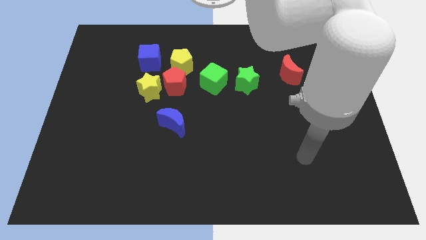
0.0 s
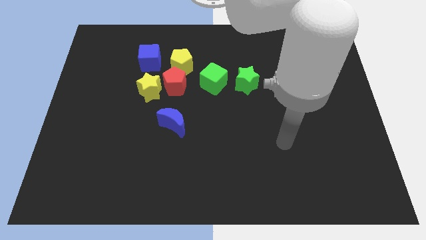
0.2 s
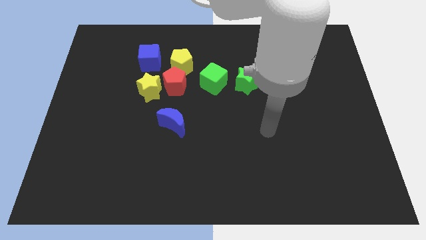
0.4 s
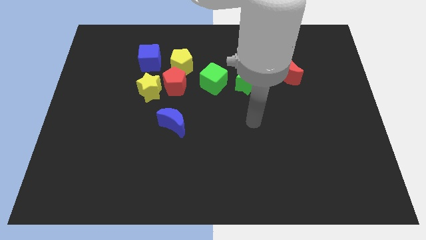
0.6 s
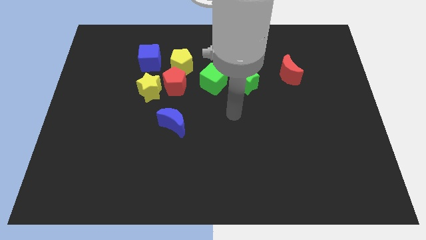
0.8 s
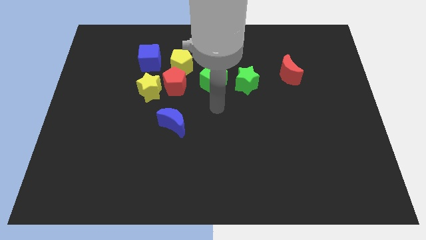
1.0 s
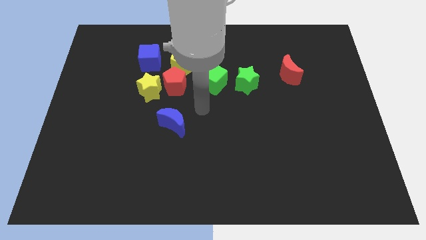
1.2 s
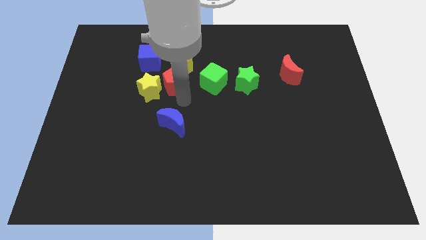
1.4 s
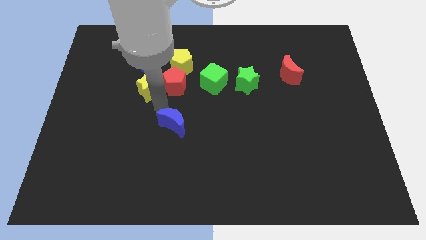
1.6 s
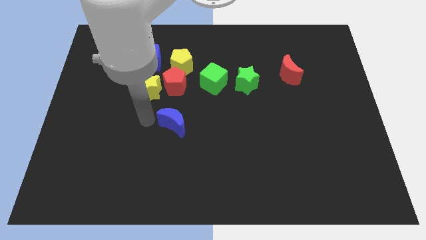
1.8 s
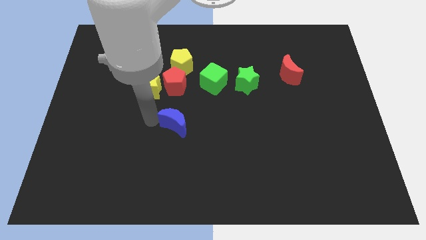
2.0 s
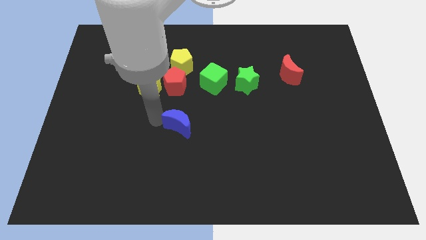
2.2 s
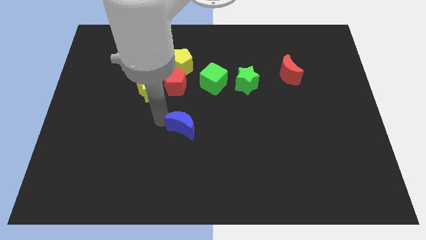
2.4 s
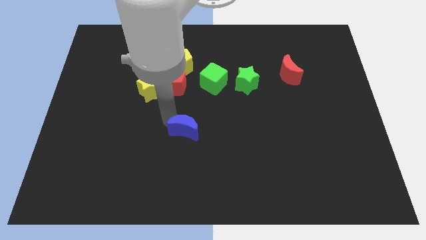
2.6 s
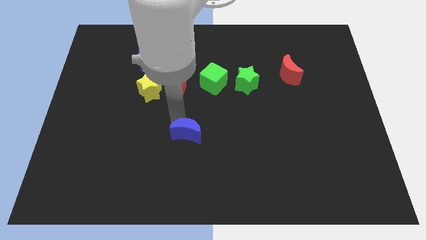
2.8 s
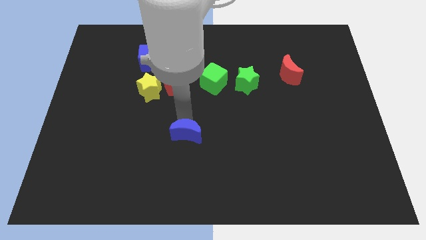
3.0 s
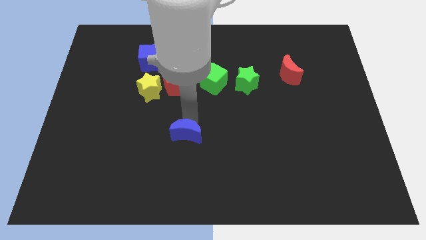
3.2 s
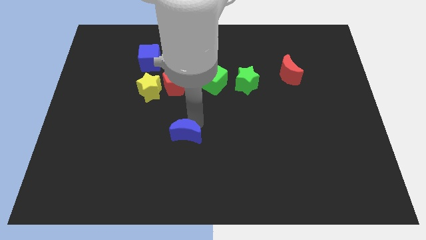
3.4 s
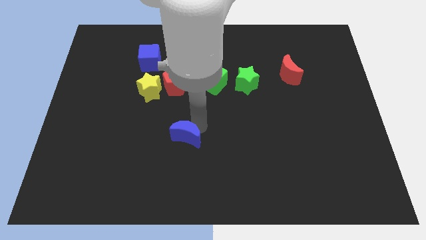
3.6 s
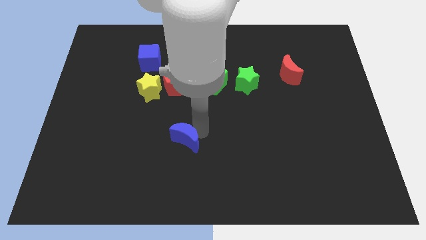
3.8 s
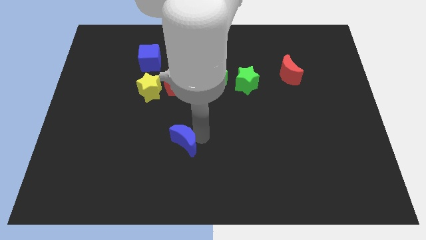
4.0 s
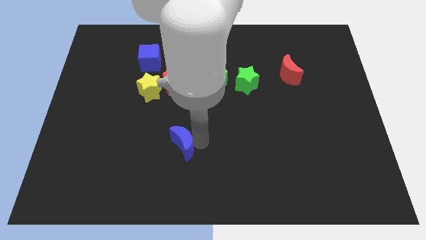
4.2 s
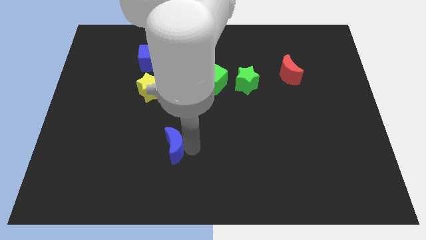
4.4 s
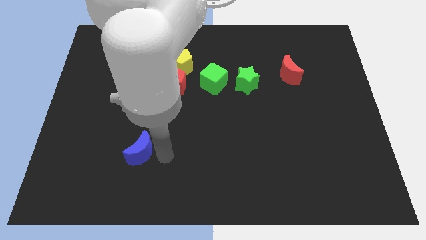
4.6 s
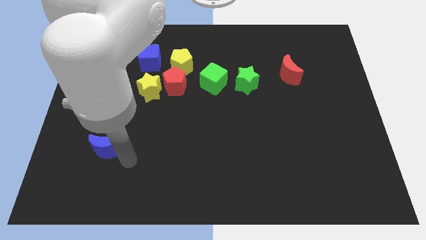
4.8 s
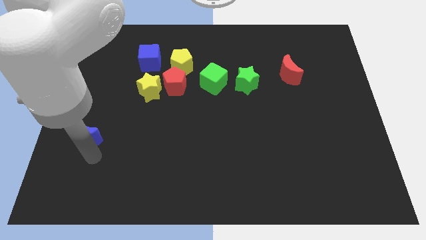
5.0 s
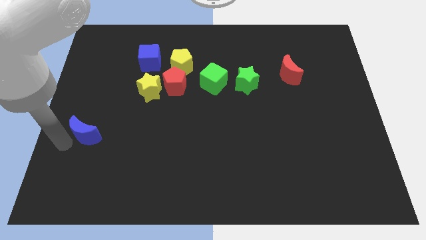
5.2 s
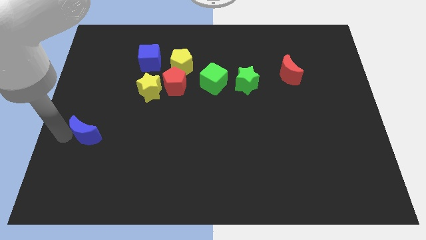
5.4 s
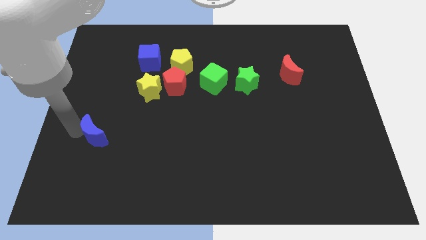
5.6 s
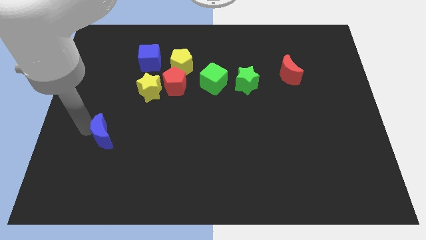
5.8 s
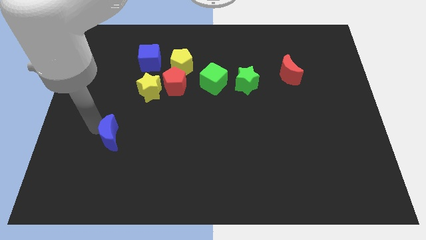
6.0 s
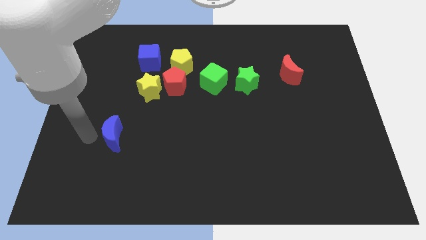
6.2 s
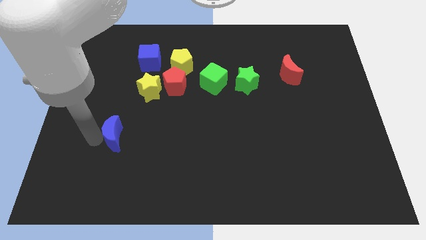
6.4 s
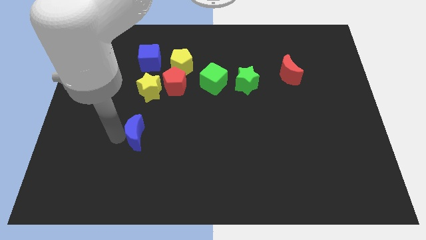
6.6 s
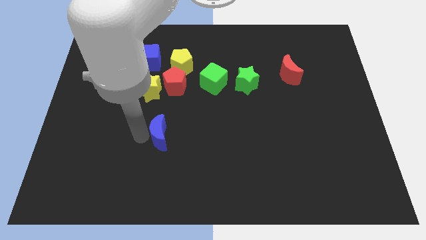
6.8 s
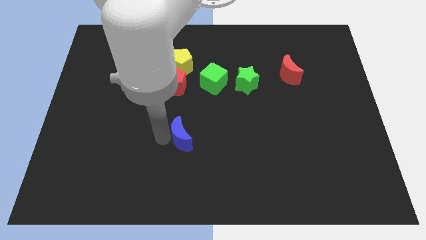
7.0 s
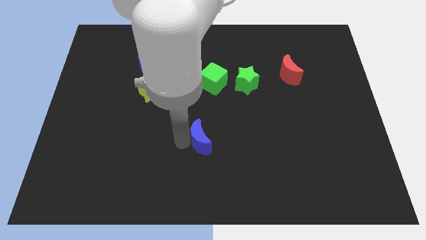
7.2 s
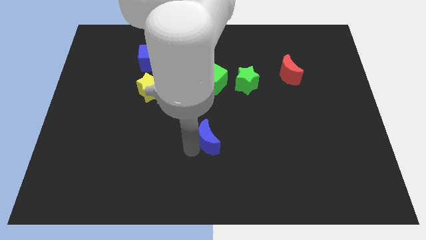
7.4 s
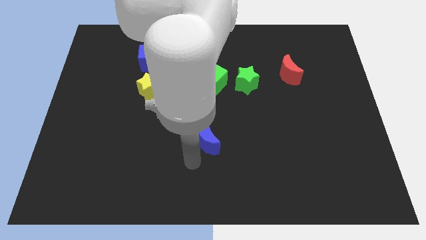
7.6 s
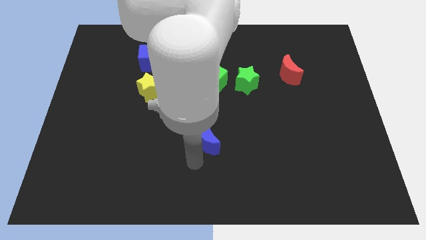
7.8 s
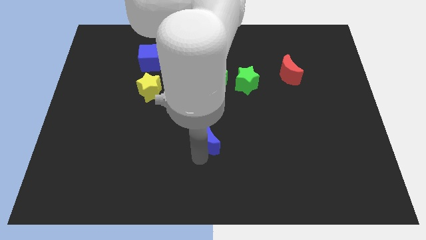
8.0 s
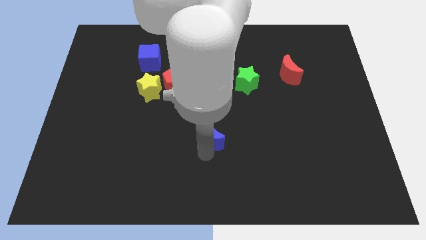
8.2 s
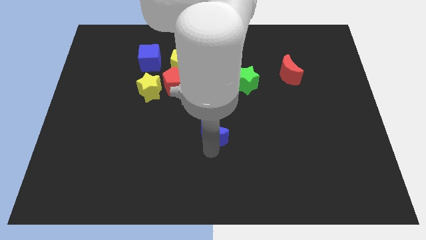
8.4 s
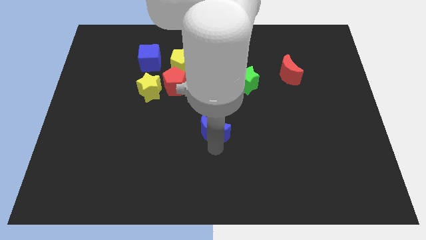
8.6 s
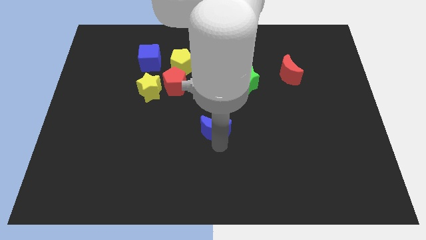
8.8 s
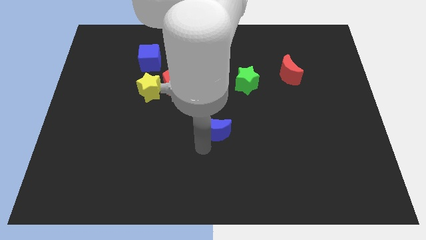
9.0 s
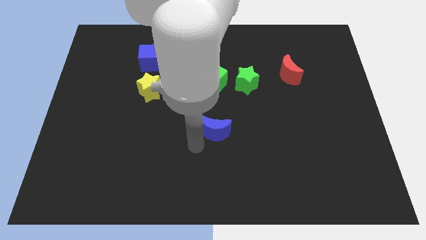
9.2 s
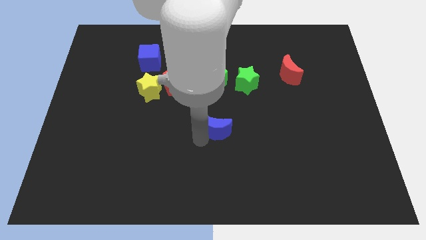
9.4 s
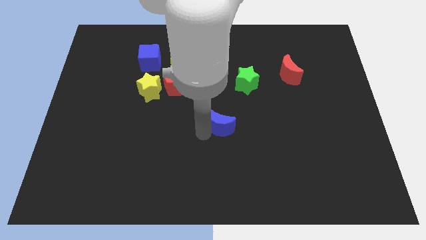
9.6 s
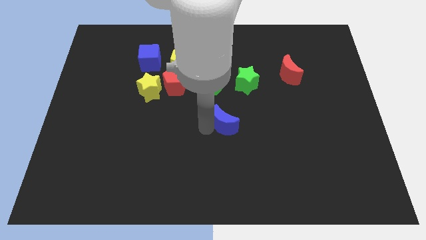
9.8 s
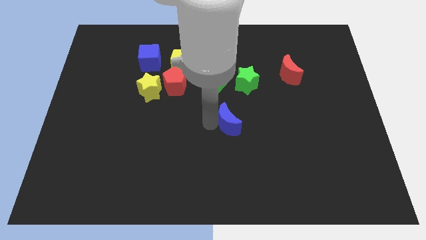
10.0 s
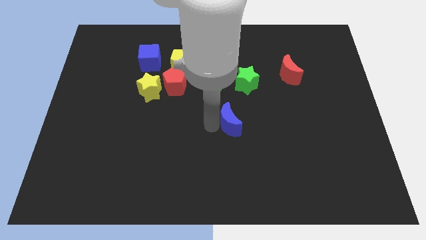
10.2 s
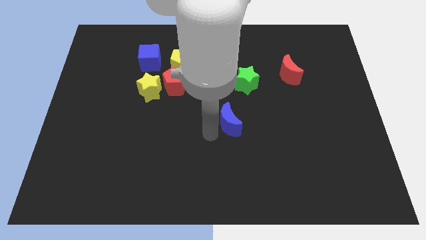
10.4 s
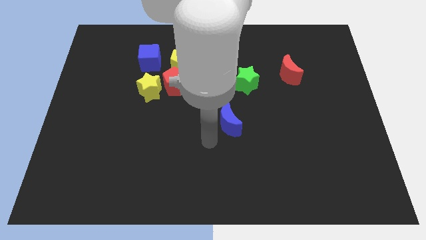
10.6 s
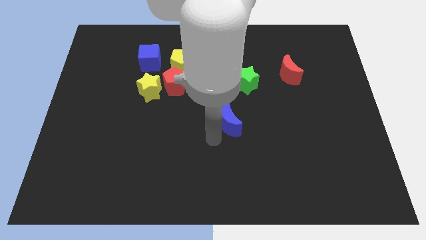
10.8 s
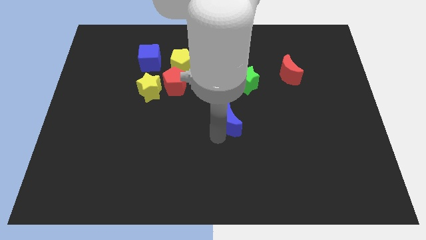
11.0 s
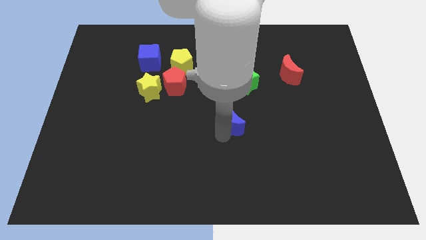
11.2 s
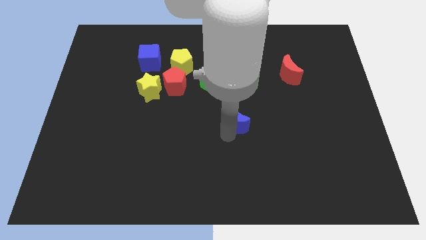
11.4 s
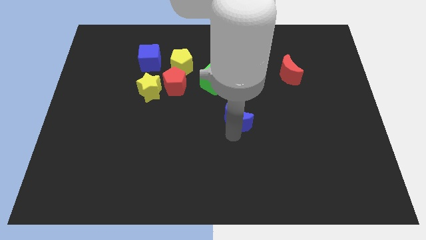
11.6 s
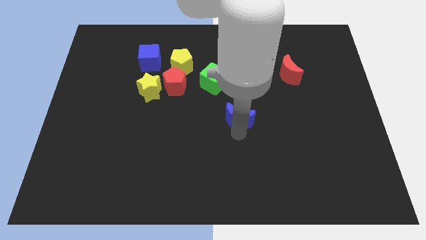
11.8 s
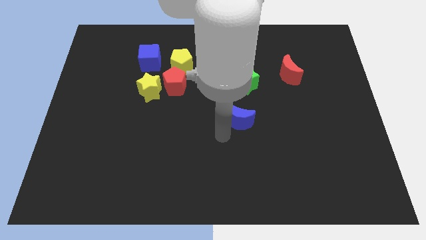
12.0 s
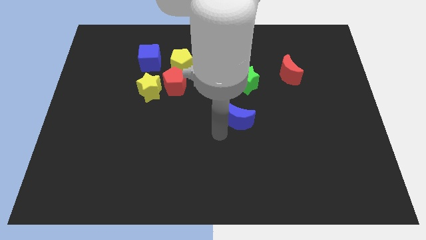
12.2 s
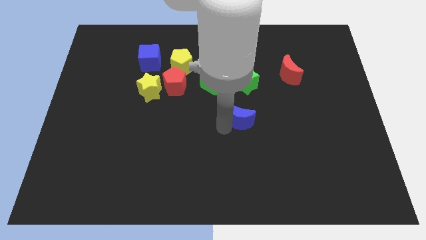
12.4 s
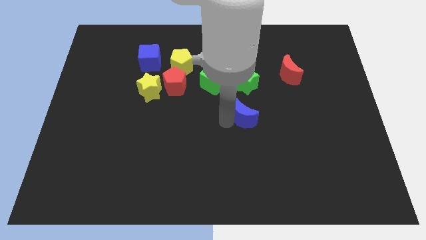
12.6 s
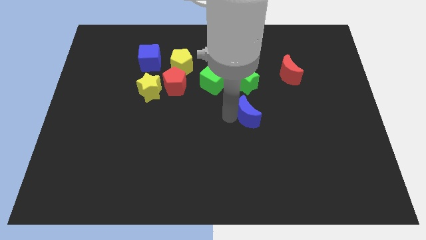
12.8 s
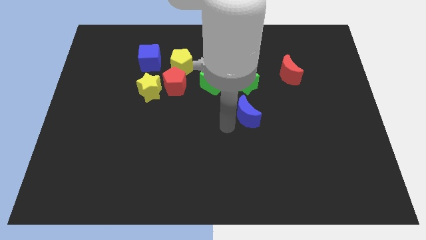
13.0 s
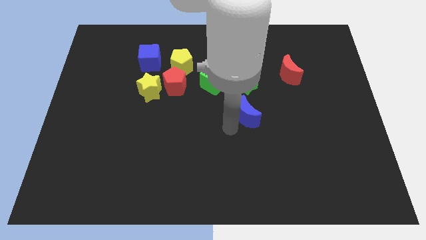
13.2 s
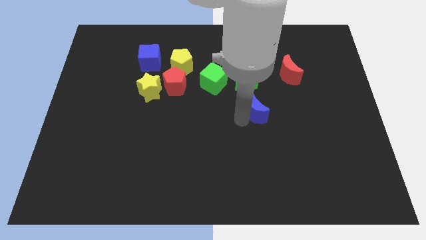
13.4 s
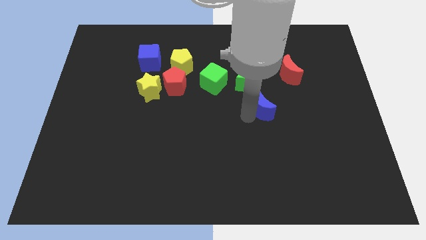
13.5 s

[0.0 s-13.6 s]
slide the blue moon to the bottom right of the green star

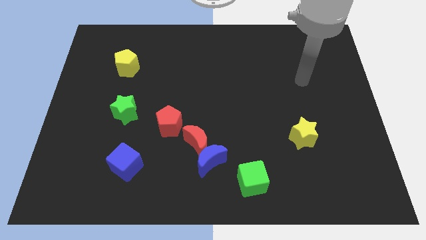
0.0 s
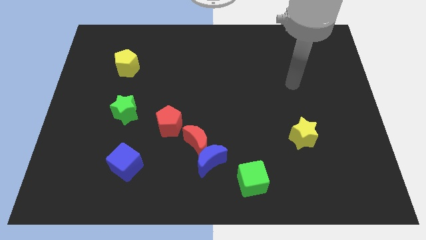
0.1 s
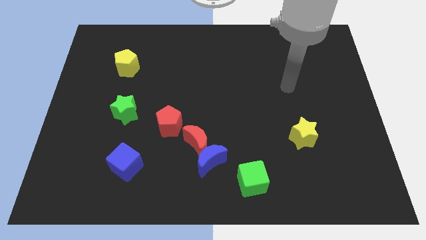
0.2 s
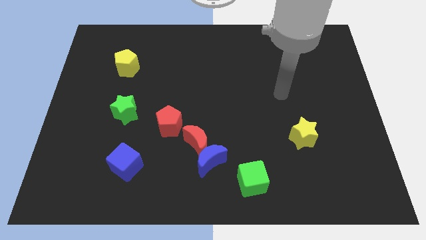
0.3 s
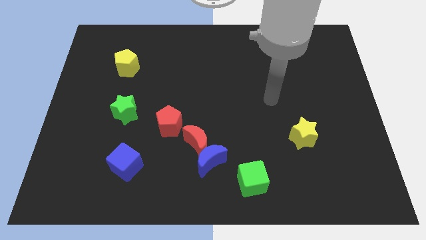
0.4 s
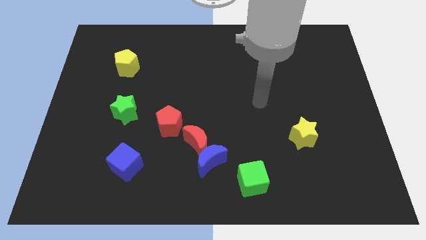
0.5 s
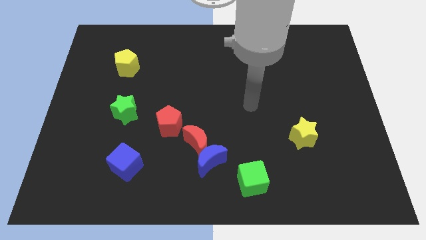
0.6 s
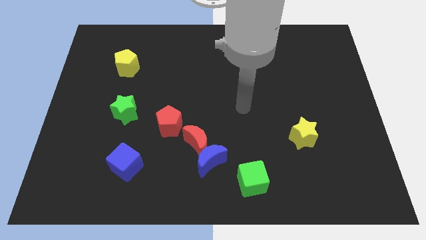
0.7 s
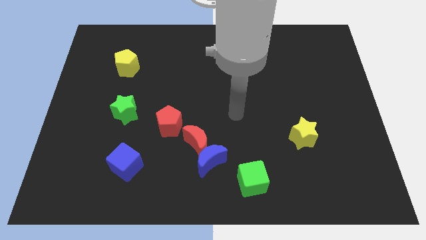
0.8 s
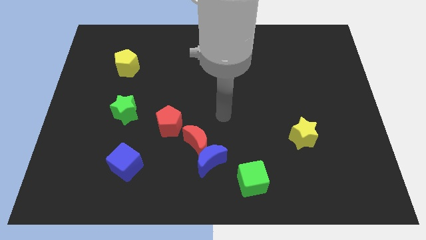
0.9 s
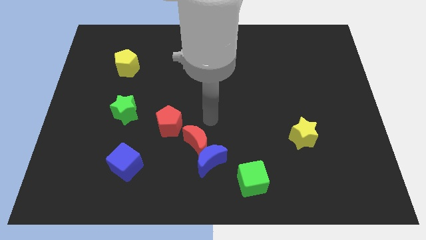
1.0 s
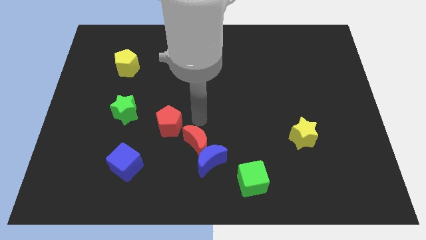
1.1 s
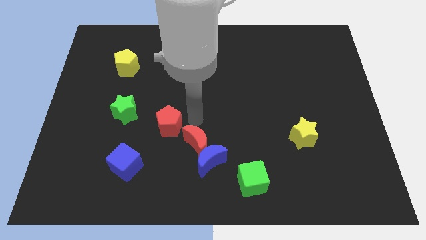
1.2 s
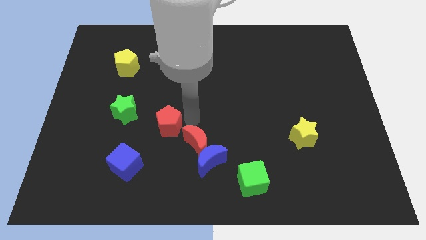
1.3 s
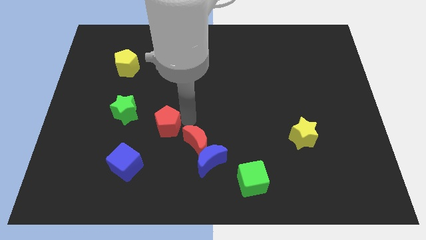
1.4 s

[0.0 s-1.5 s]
push the red pentagon diagonally down and to the right of the green star
